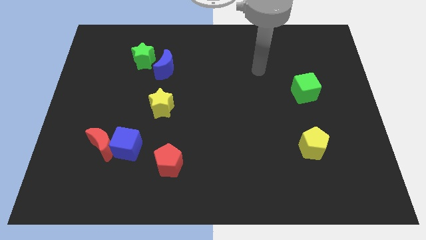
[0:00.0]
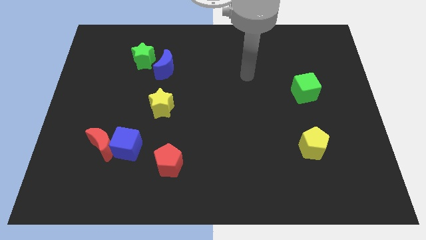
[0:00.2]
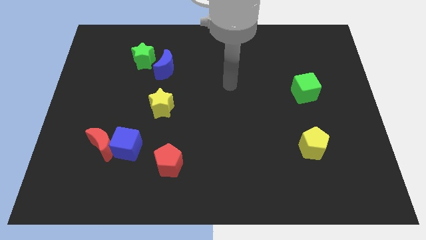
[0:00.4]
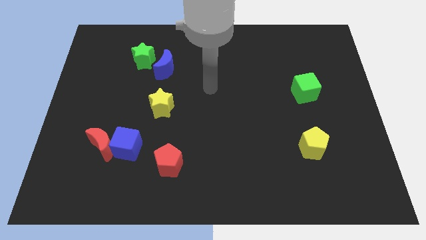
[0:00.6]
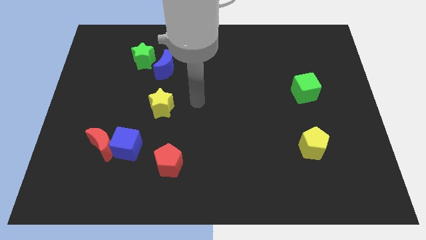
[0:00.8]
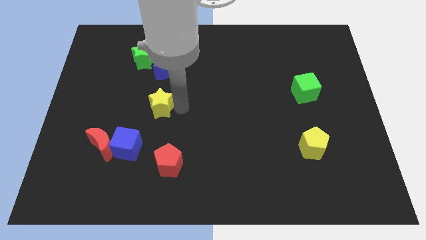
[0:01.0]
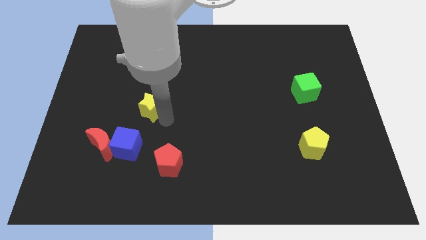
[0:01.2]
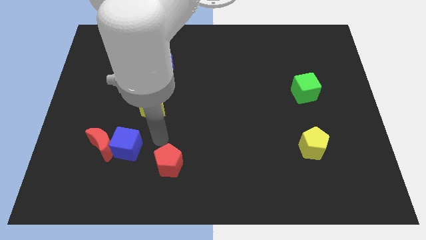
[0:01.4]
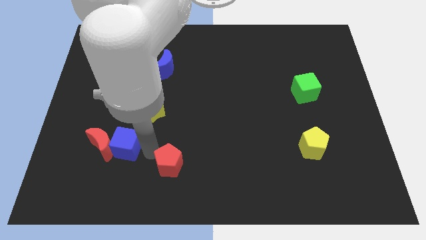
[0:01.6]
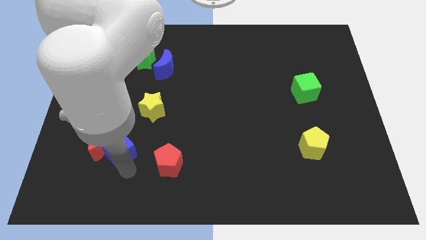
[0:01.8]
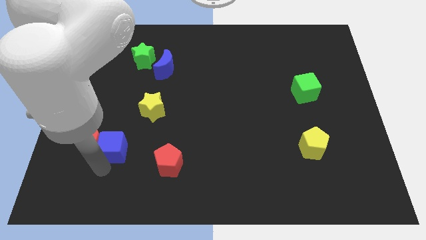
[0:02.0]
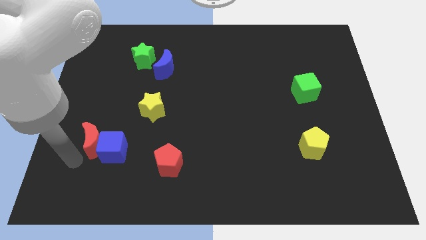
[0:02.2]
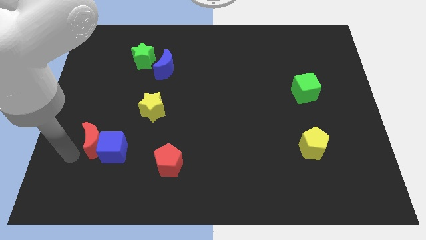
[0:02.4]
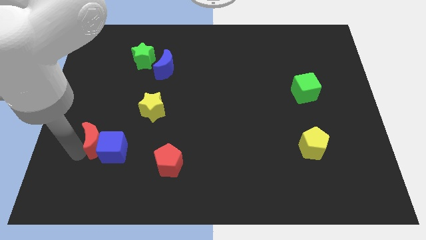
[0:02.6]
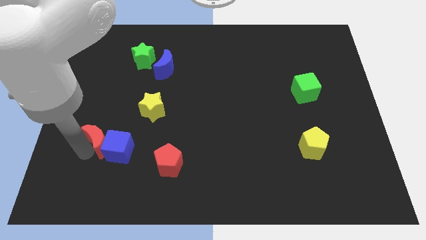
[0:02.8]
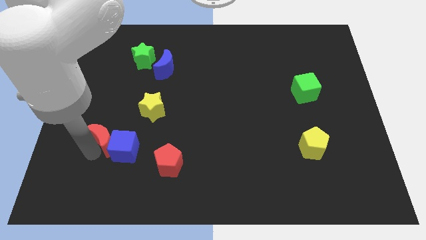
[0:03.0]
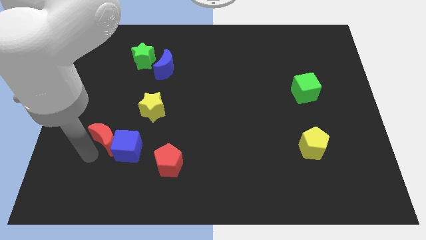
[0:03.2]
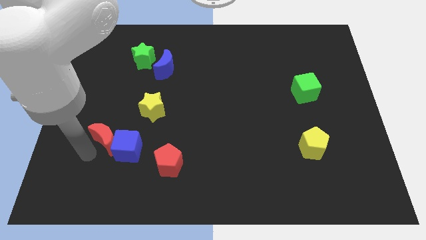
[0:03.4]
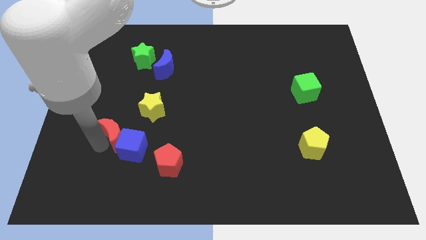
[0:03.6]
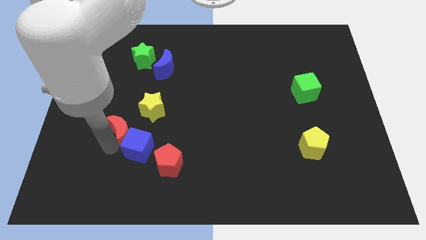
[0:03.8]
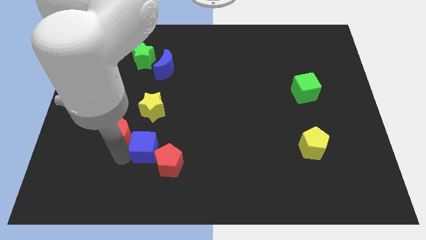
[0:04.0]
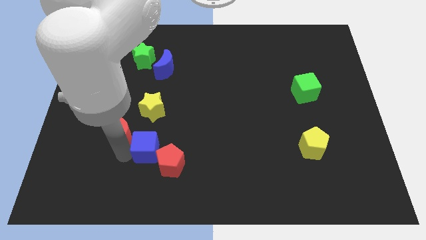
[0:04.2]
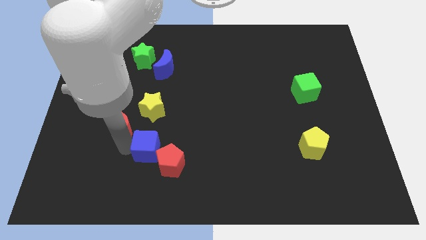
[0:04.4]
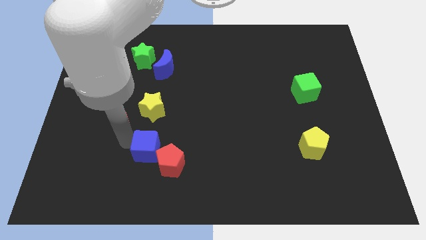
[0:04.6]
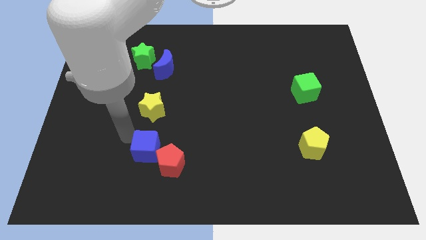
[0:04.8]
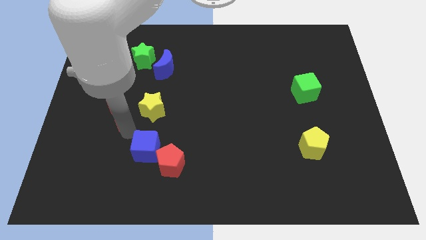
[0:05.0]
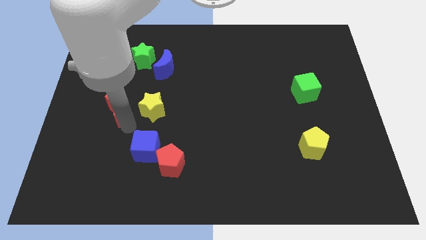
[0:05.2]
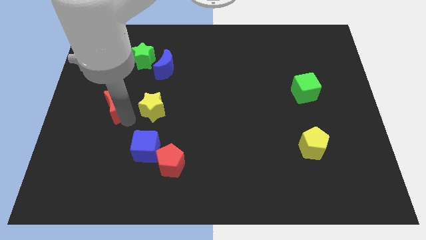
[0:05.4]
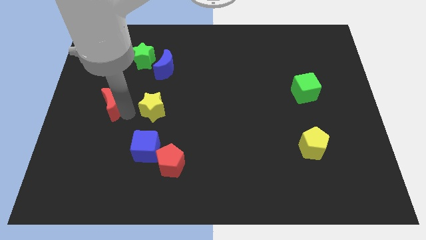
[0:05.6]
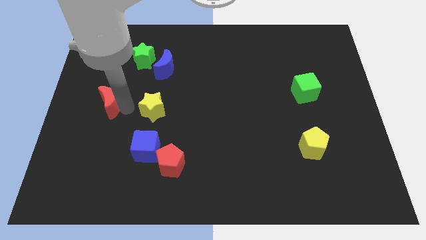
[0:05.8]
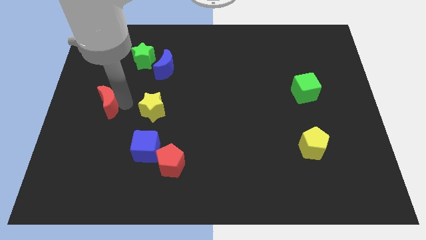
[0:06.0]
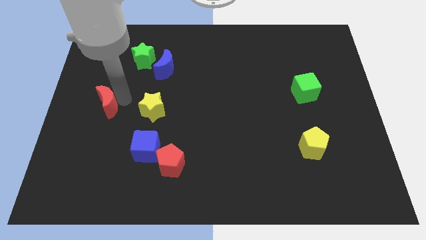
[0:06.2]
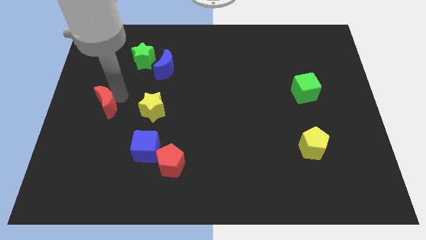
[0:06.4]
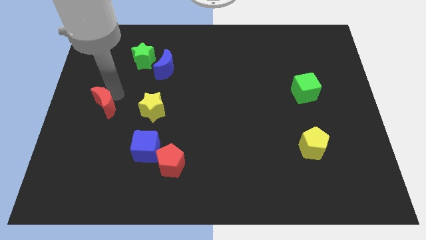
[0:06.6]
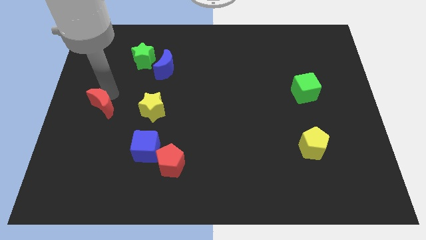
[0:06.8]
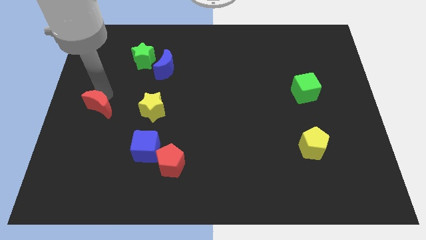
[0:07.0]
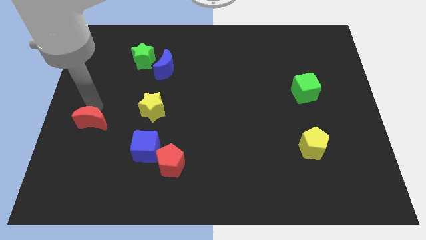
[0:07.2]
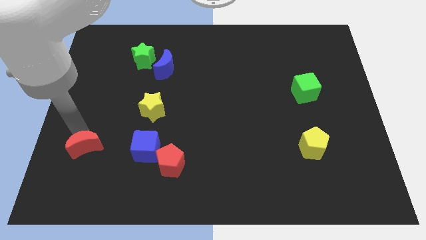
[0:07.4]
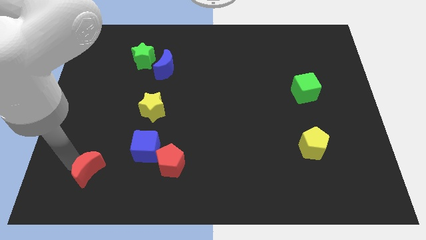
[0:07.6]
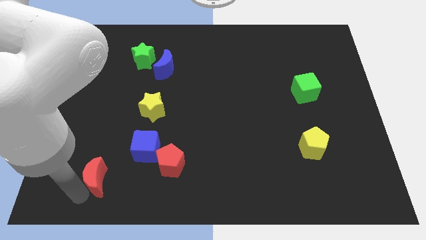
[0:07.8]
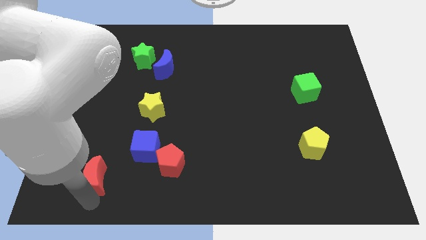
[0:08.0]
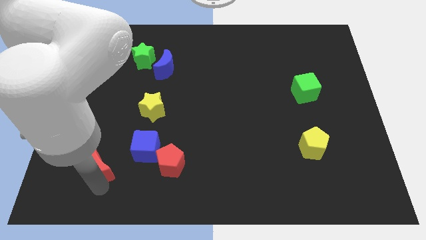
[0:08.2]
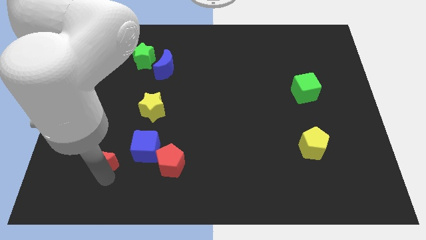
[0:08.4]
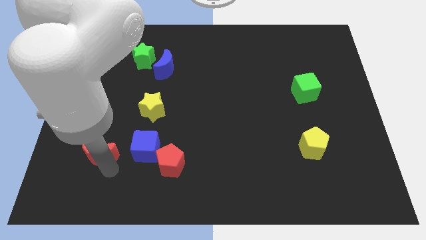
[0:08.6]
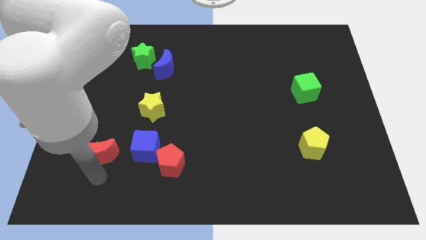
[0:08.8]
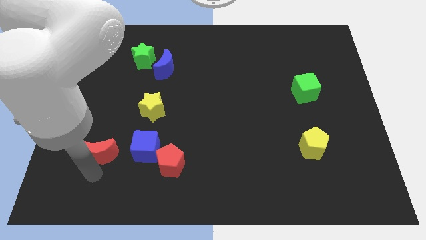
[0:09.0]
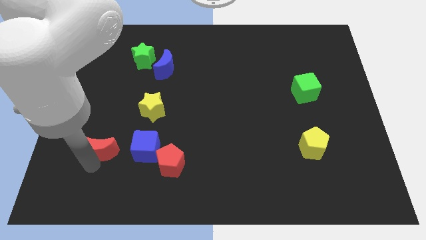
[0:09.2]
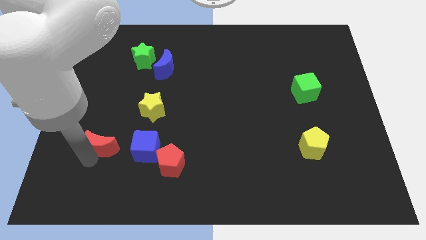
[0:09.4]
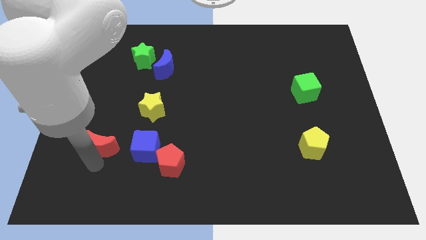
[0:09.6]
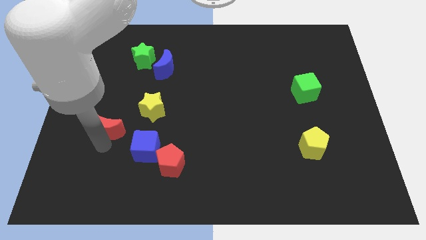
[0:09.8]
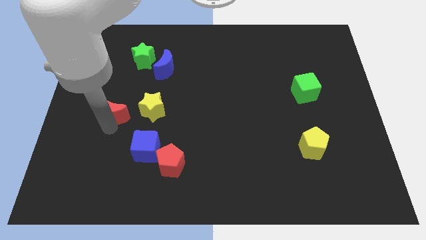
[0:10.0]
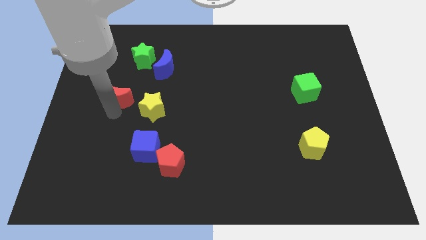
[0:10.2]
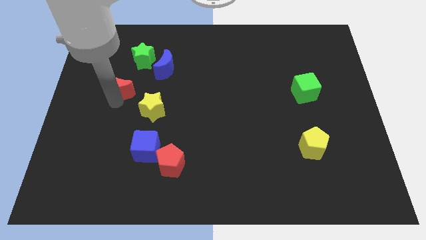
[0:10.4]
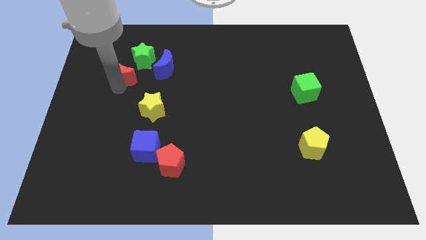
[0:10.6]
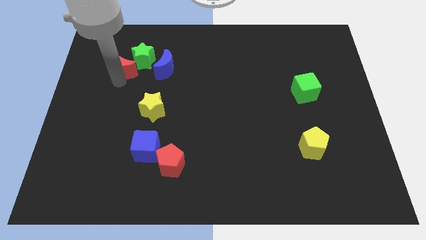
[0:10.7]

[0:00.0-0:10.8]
push the red moon towards the green star

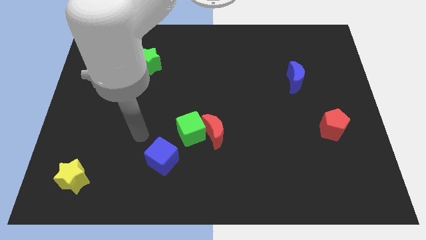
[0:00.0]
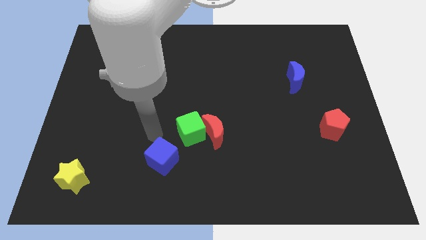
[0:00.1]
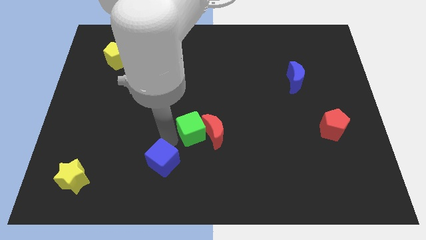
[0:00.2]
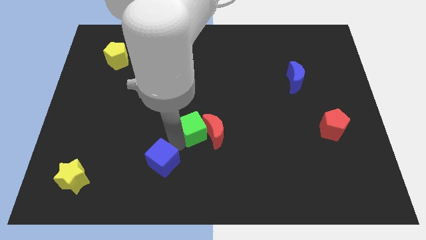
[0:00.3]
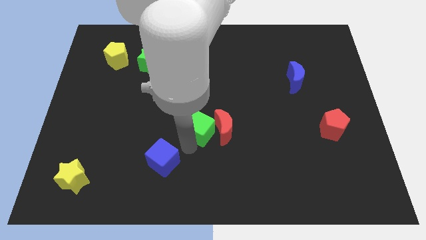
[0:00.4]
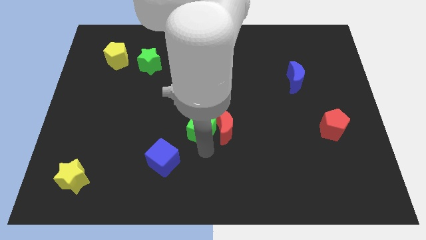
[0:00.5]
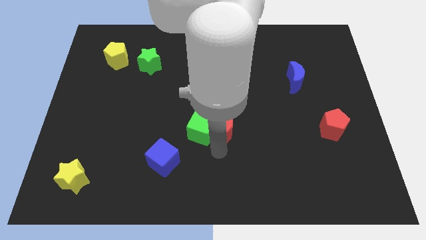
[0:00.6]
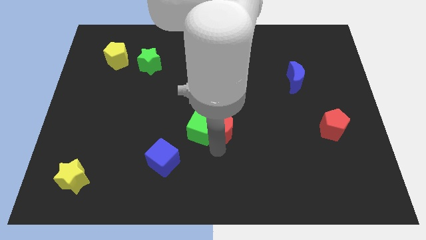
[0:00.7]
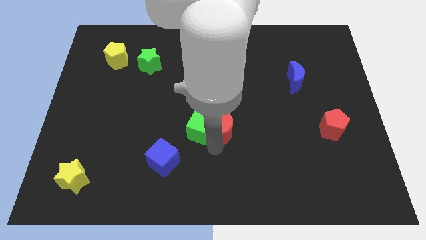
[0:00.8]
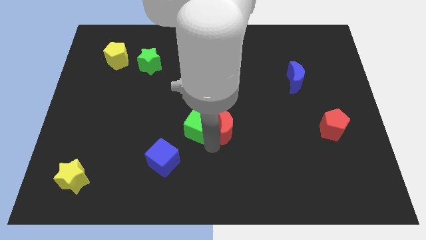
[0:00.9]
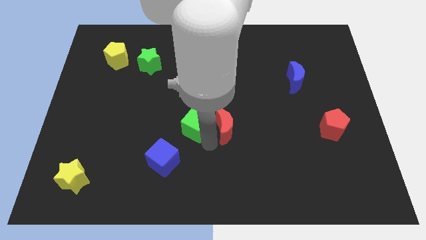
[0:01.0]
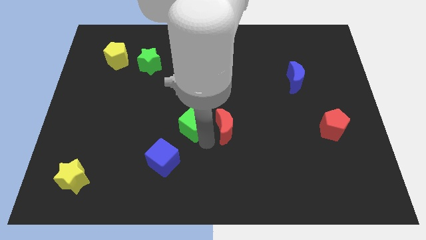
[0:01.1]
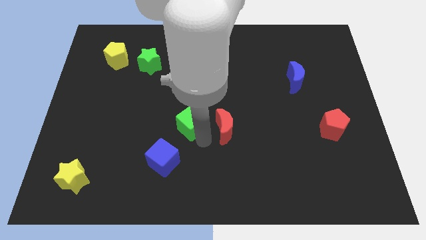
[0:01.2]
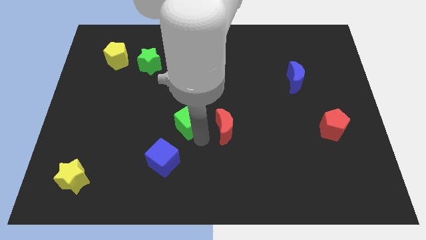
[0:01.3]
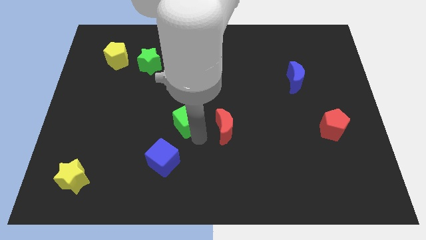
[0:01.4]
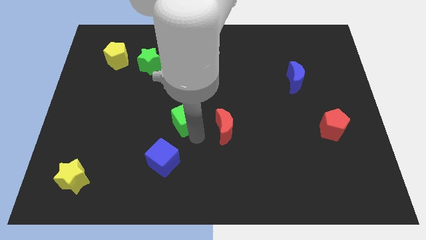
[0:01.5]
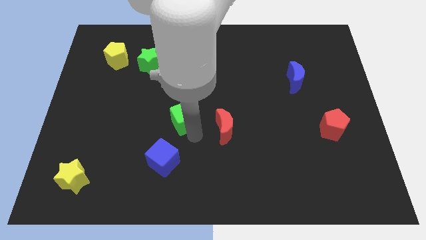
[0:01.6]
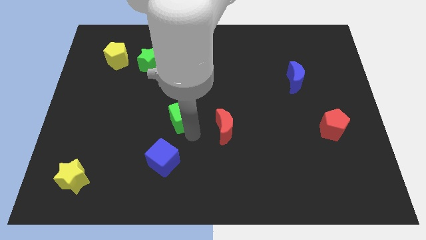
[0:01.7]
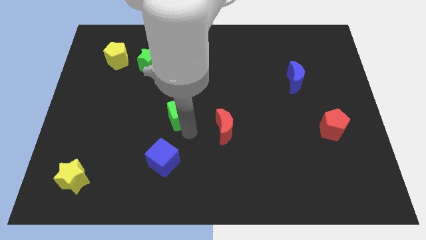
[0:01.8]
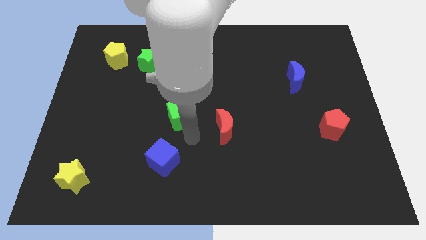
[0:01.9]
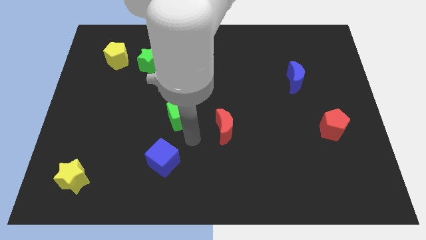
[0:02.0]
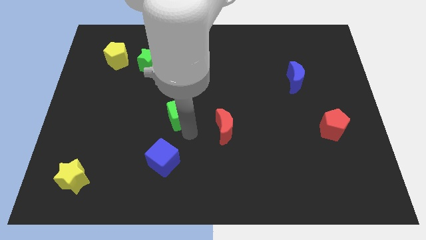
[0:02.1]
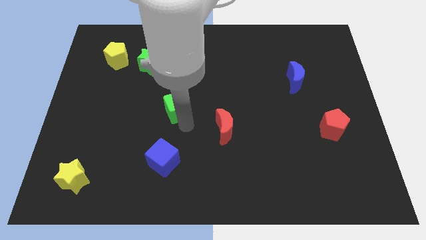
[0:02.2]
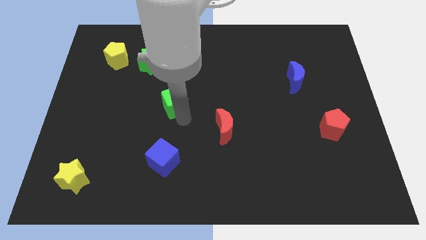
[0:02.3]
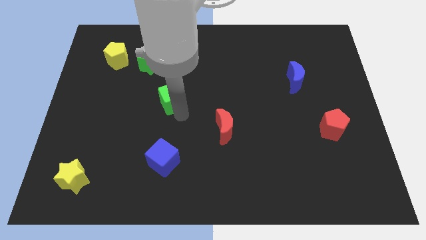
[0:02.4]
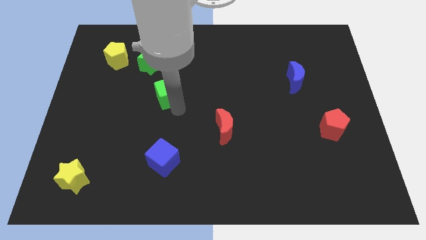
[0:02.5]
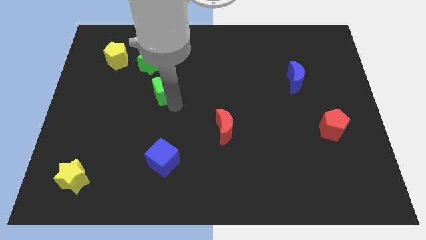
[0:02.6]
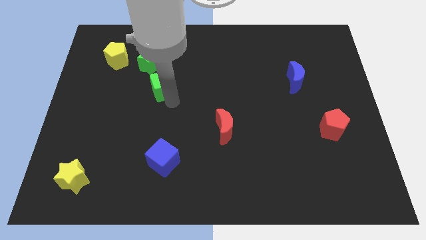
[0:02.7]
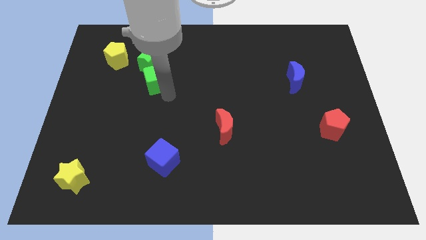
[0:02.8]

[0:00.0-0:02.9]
slide the green cube next to the green star
